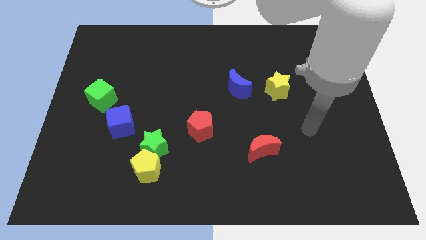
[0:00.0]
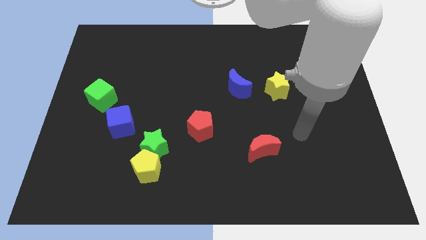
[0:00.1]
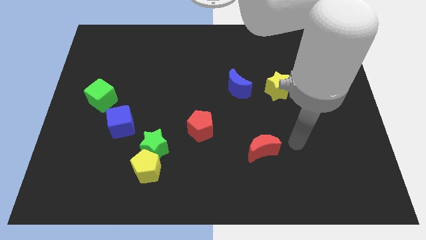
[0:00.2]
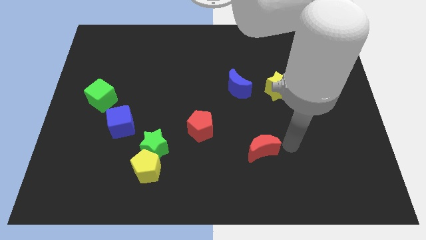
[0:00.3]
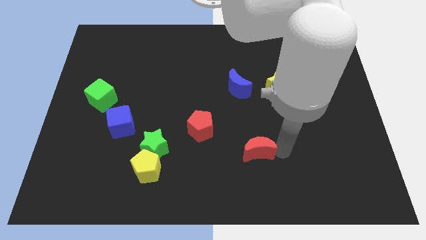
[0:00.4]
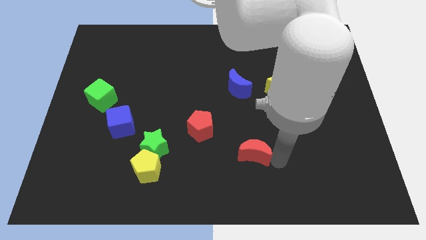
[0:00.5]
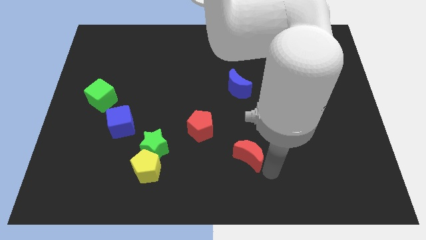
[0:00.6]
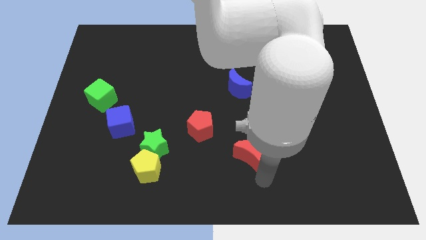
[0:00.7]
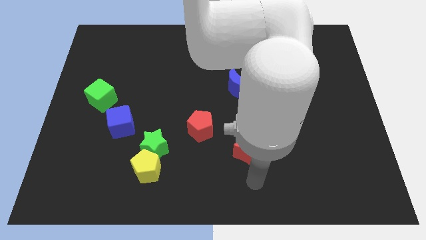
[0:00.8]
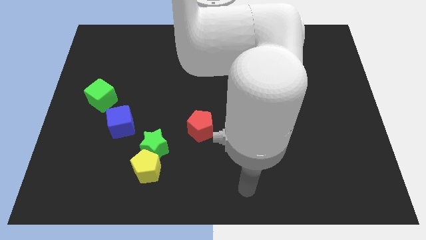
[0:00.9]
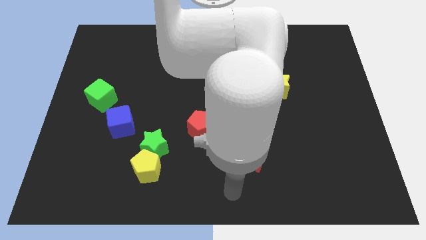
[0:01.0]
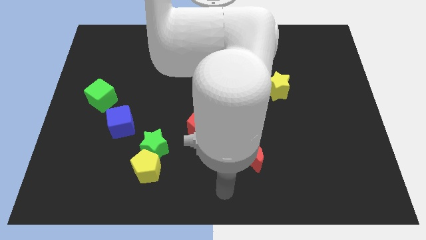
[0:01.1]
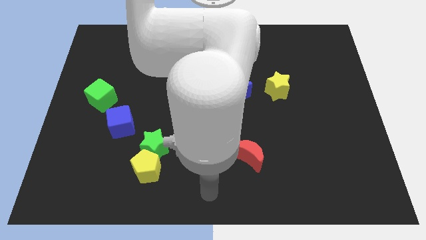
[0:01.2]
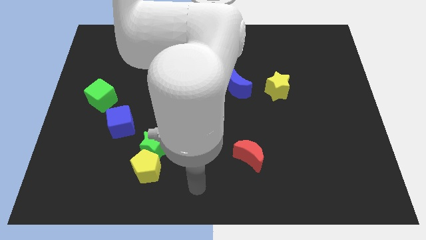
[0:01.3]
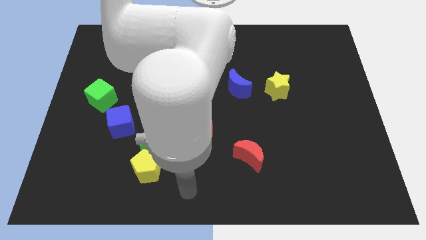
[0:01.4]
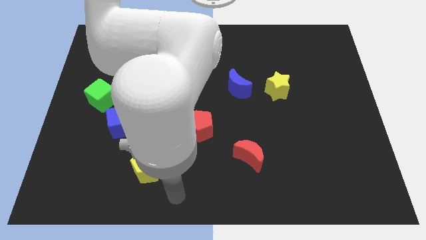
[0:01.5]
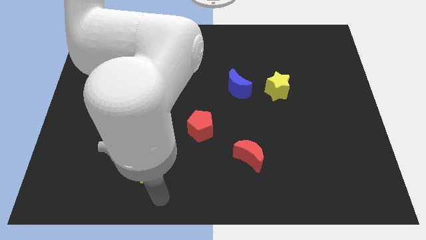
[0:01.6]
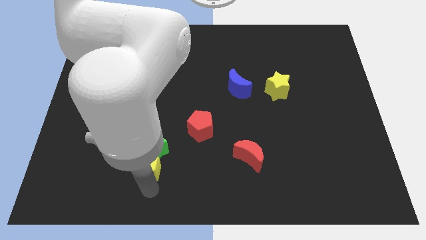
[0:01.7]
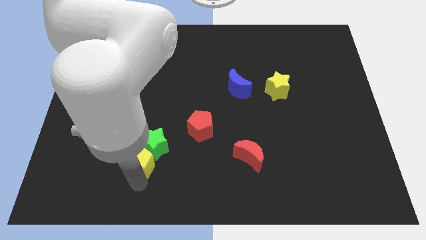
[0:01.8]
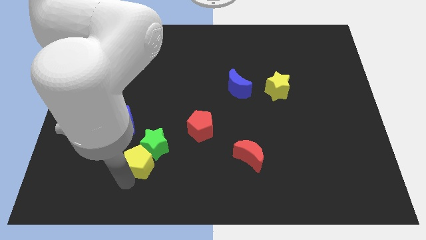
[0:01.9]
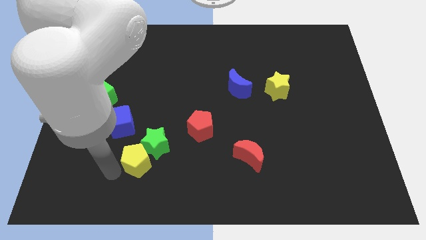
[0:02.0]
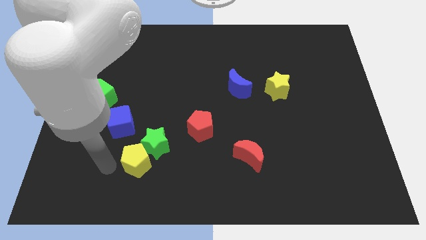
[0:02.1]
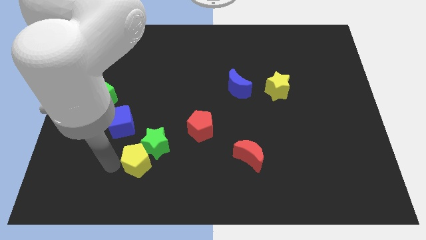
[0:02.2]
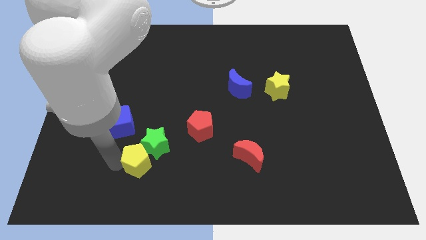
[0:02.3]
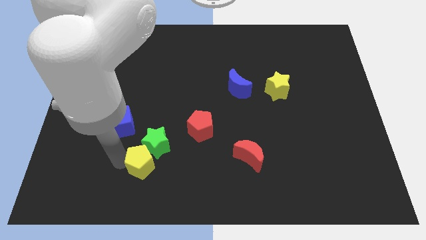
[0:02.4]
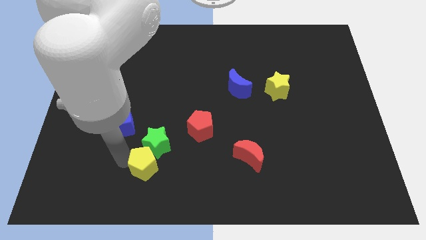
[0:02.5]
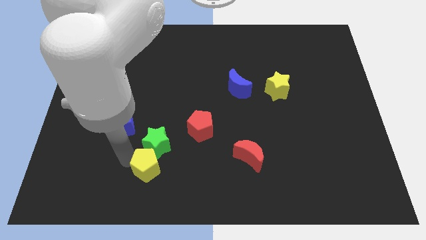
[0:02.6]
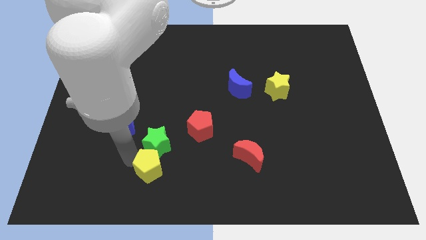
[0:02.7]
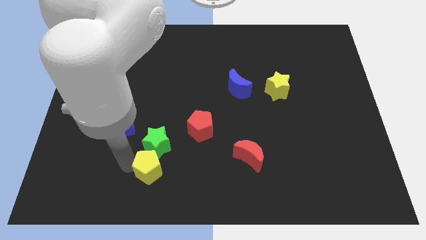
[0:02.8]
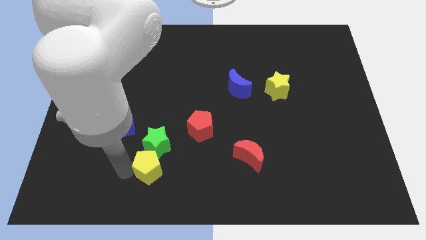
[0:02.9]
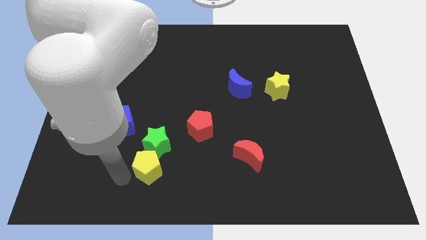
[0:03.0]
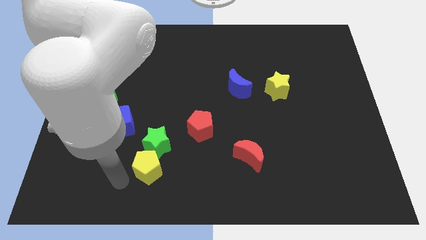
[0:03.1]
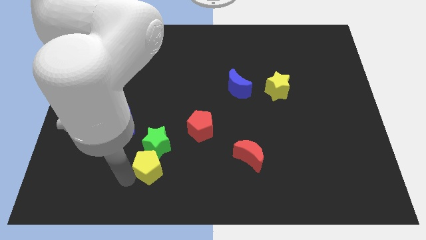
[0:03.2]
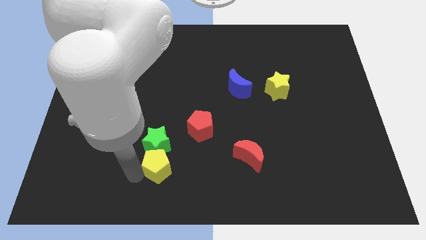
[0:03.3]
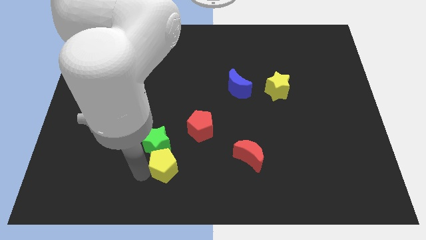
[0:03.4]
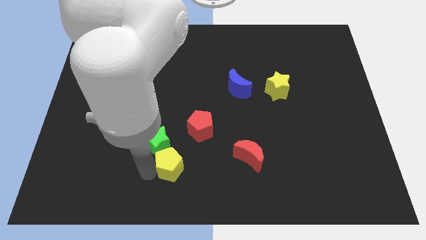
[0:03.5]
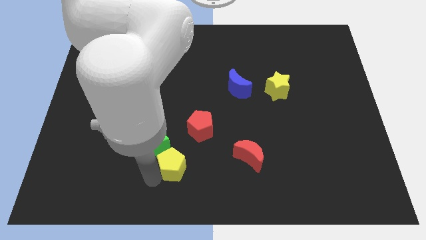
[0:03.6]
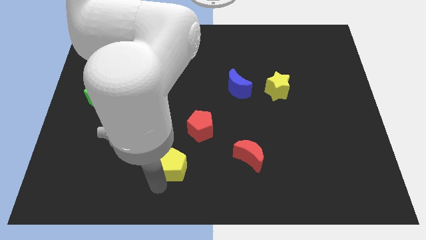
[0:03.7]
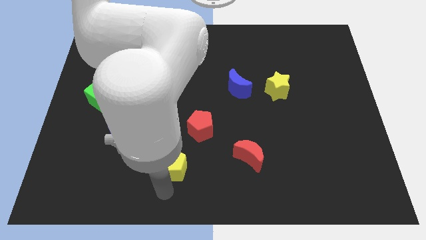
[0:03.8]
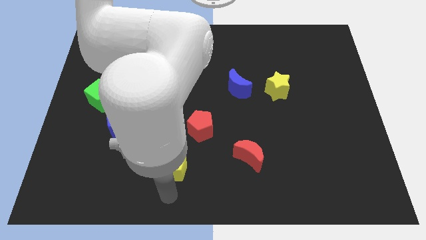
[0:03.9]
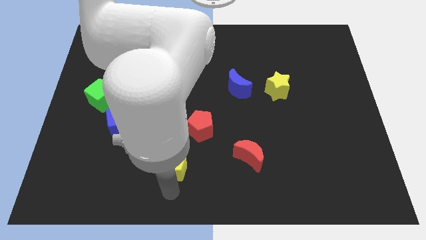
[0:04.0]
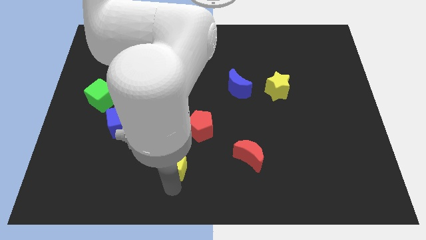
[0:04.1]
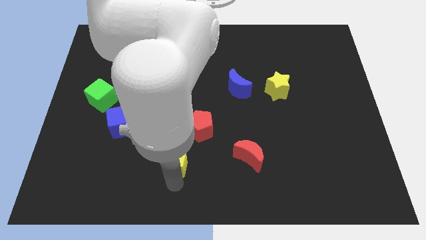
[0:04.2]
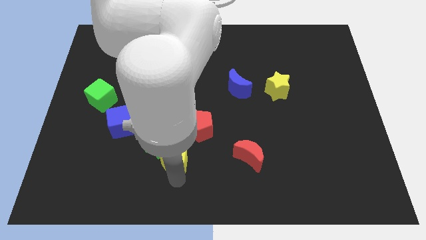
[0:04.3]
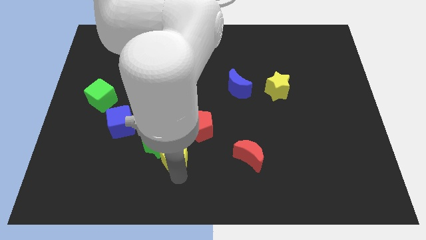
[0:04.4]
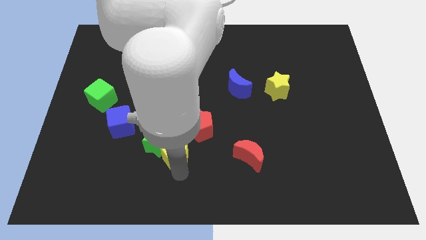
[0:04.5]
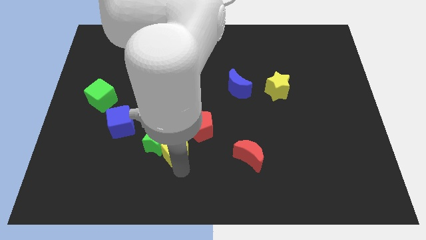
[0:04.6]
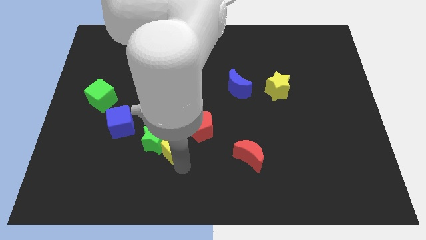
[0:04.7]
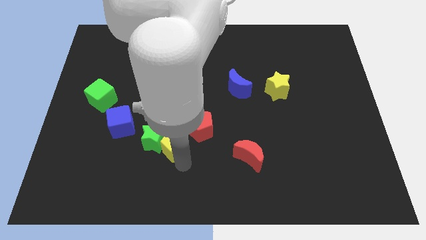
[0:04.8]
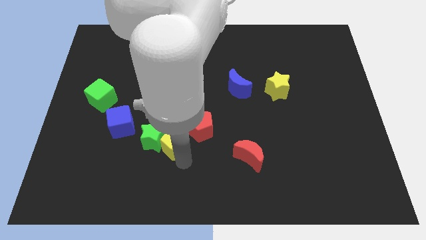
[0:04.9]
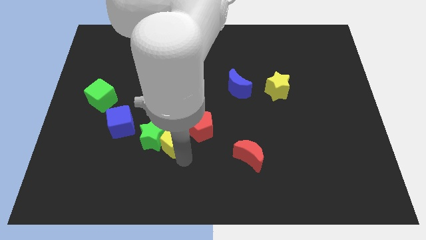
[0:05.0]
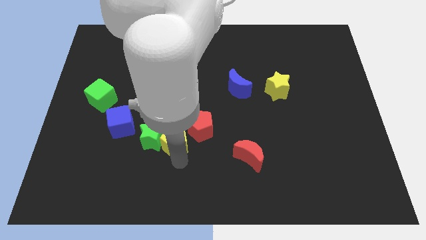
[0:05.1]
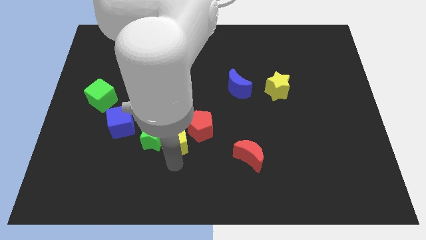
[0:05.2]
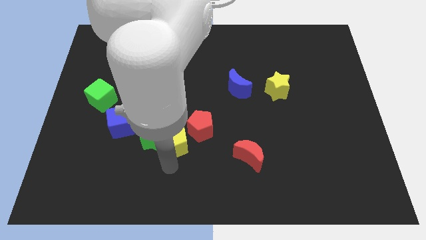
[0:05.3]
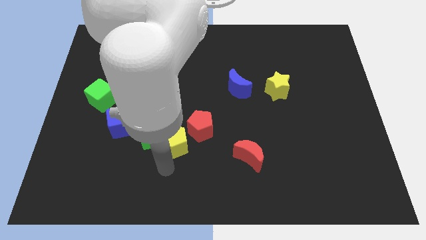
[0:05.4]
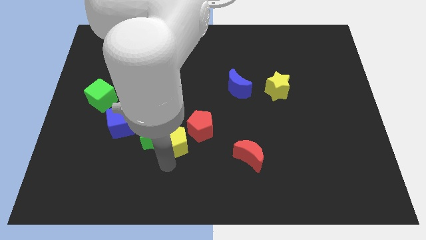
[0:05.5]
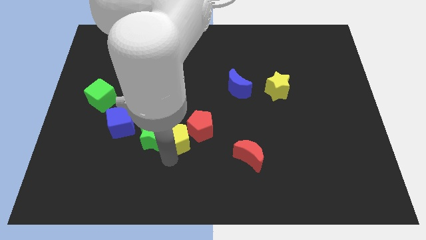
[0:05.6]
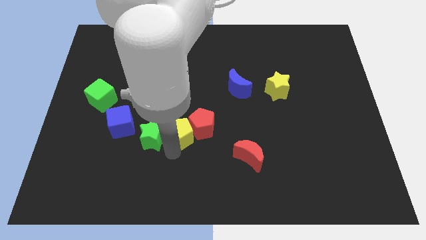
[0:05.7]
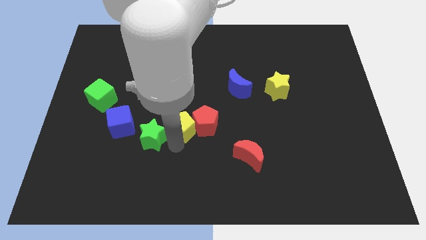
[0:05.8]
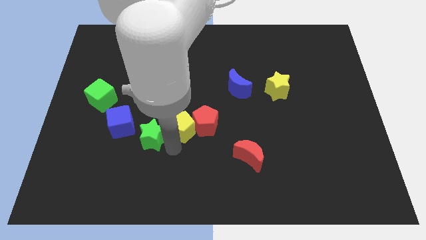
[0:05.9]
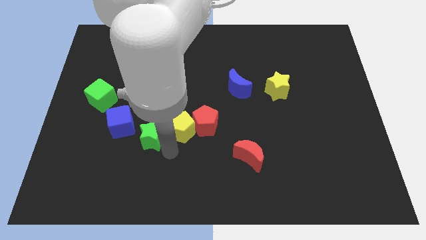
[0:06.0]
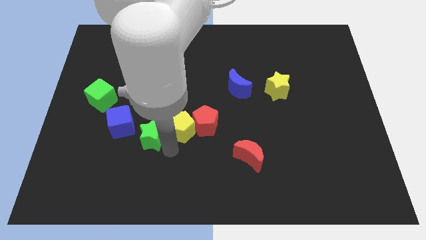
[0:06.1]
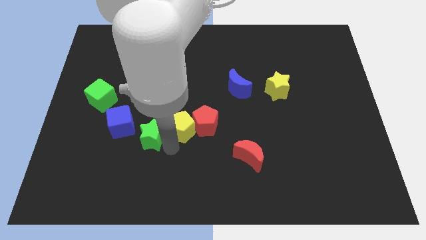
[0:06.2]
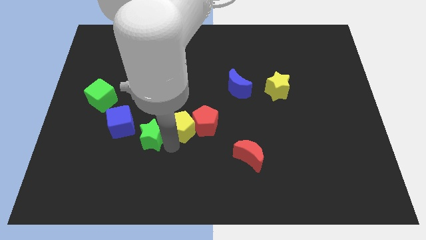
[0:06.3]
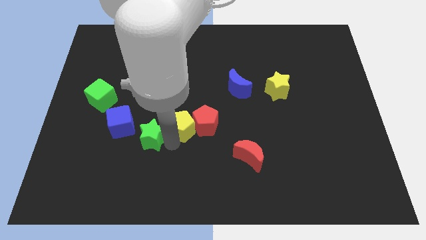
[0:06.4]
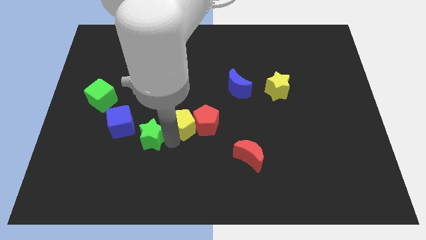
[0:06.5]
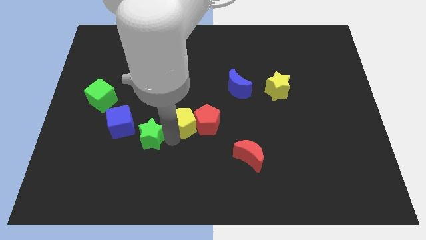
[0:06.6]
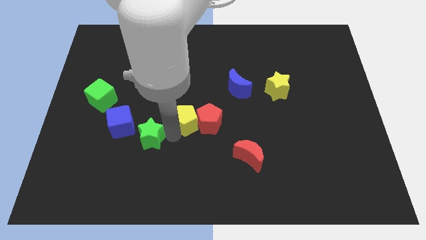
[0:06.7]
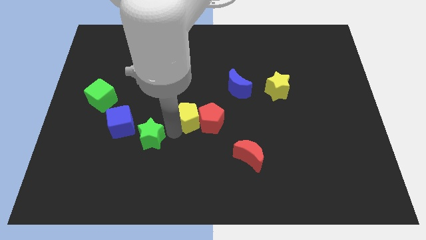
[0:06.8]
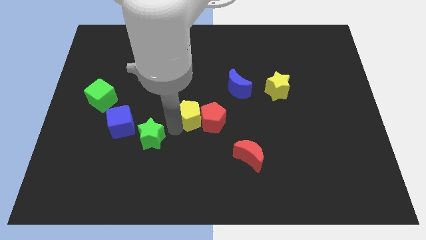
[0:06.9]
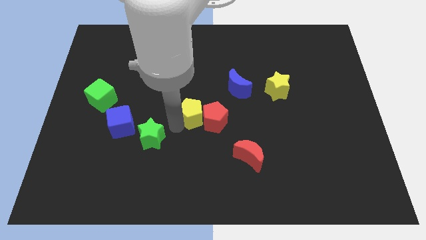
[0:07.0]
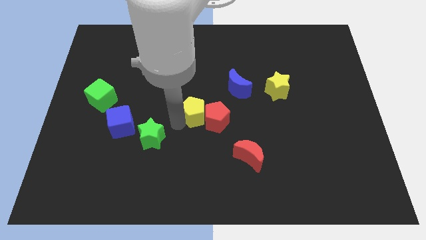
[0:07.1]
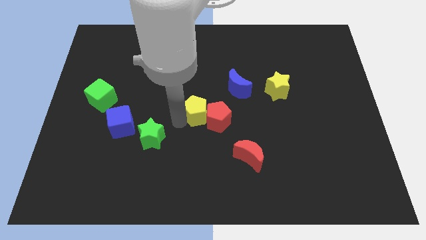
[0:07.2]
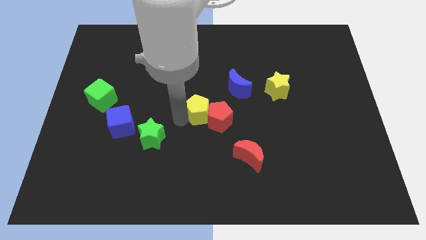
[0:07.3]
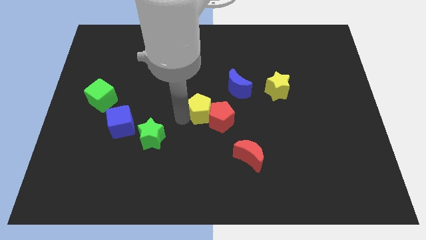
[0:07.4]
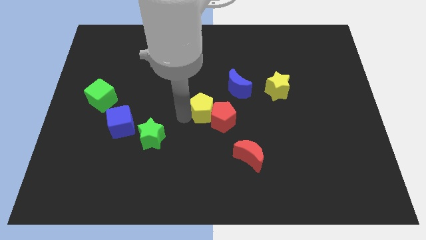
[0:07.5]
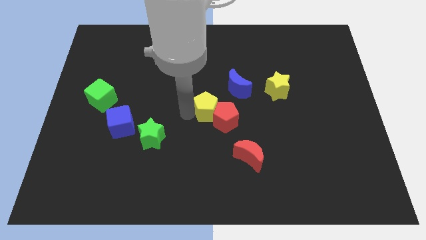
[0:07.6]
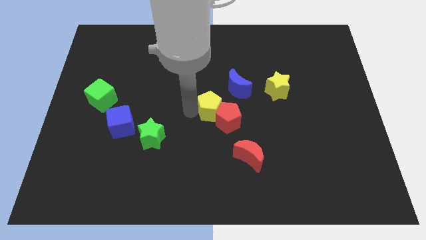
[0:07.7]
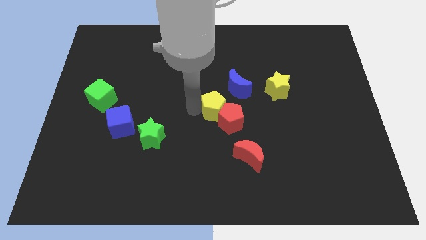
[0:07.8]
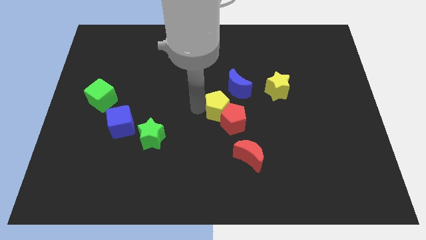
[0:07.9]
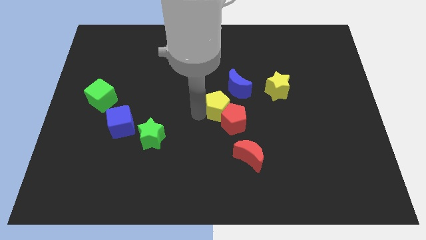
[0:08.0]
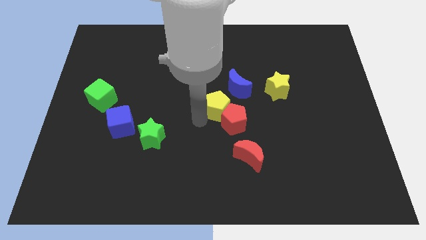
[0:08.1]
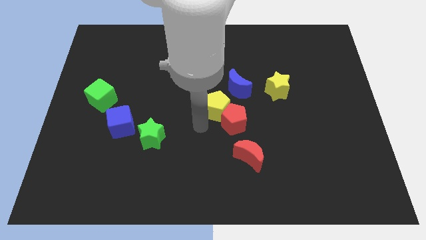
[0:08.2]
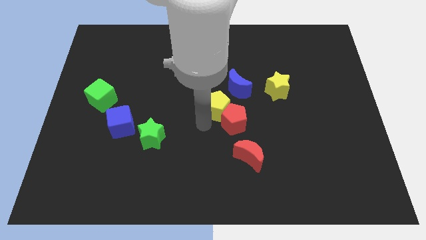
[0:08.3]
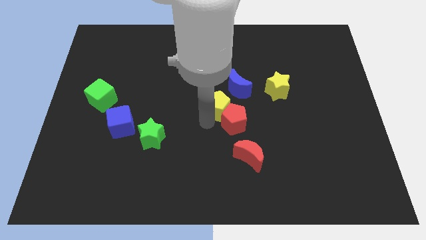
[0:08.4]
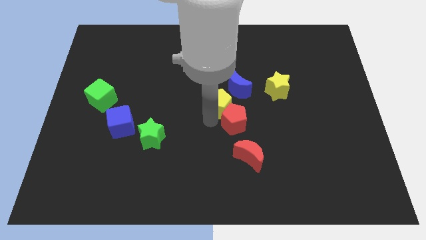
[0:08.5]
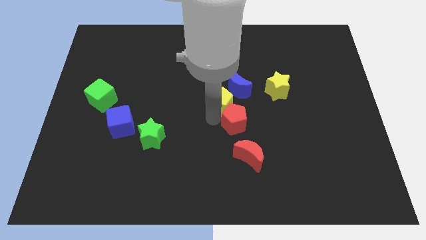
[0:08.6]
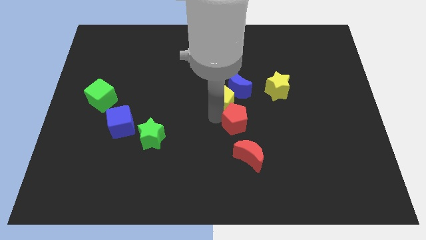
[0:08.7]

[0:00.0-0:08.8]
move the yellow pentagon next to the blue moon
